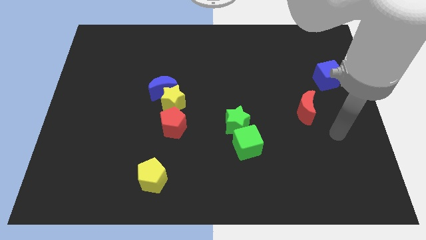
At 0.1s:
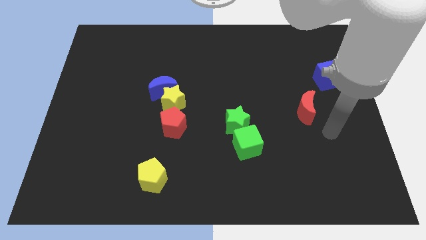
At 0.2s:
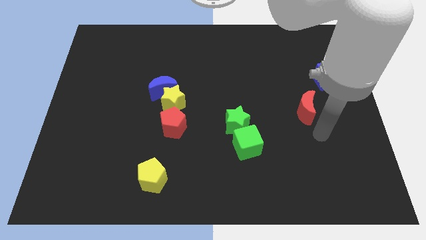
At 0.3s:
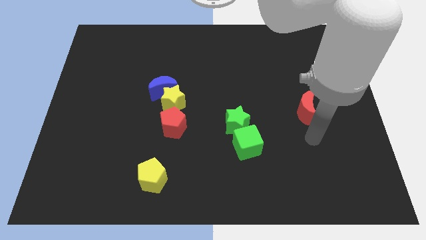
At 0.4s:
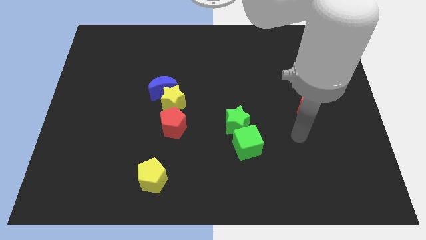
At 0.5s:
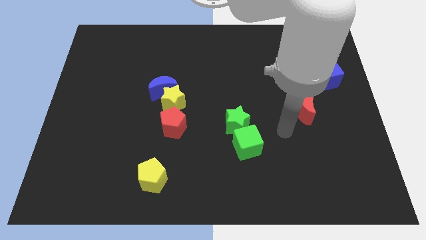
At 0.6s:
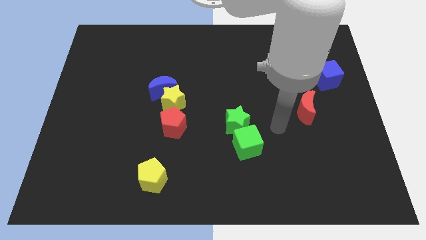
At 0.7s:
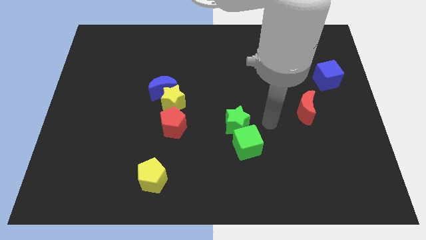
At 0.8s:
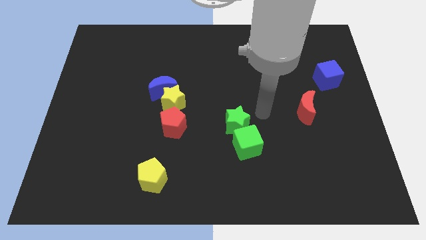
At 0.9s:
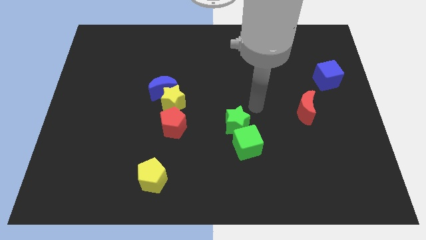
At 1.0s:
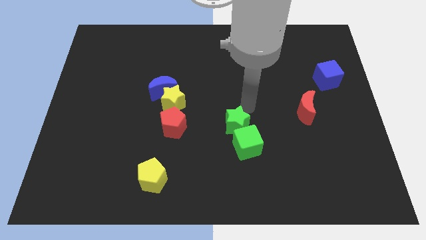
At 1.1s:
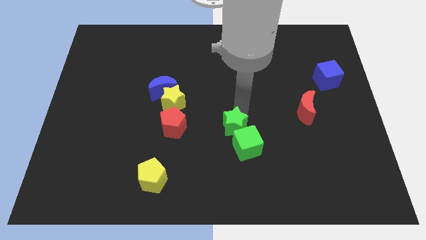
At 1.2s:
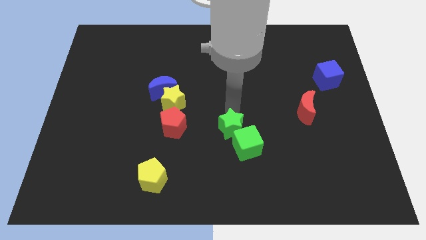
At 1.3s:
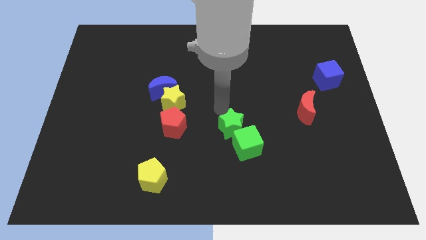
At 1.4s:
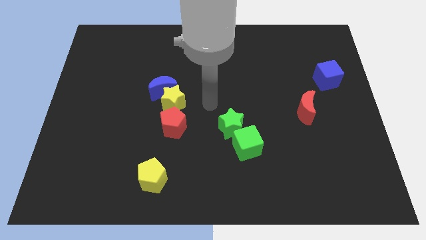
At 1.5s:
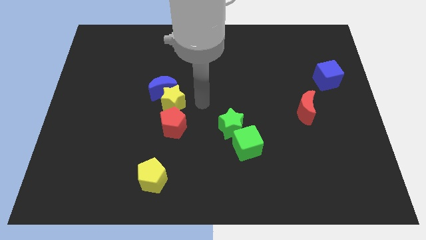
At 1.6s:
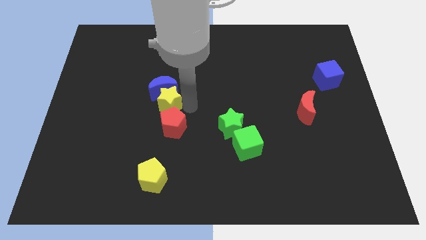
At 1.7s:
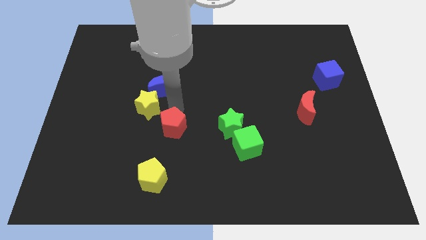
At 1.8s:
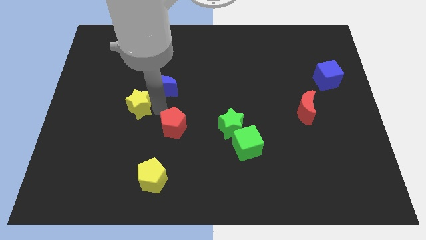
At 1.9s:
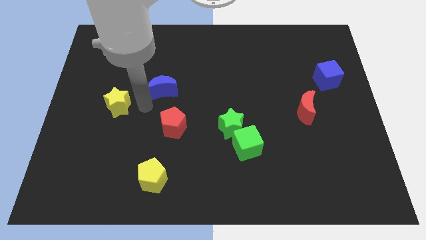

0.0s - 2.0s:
pull the blue moon apart from the yellow star

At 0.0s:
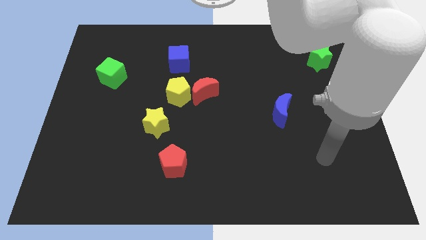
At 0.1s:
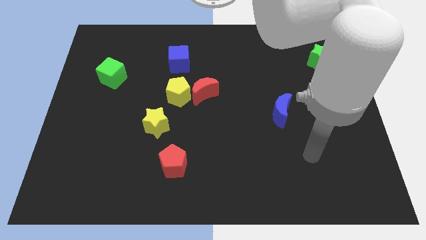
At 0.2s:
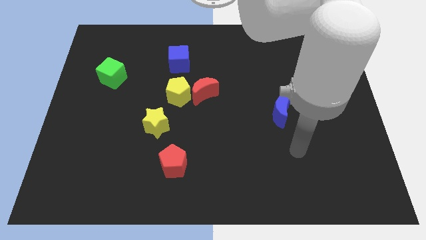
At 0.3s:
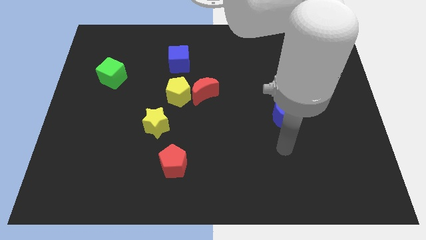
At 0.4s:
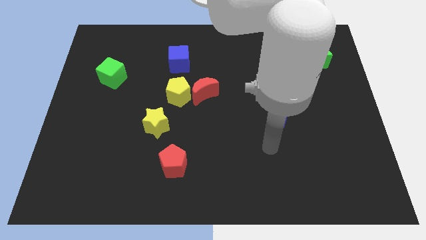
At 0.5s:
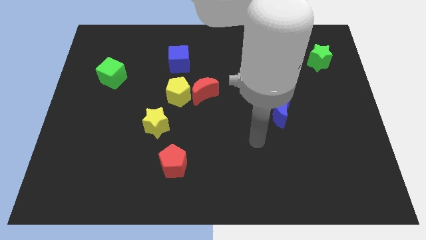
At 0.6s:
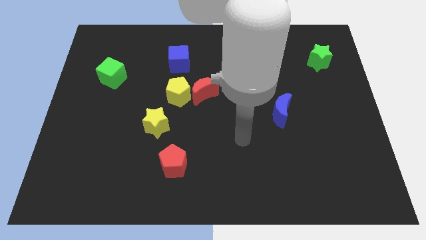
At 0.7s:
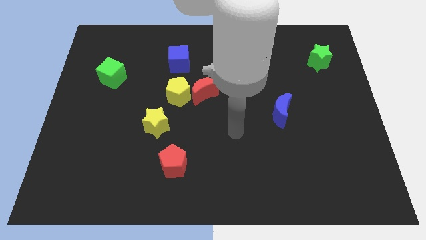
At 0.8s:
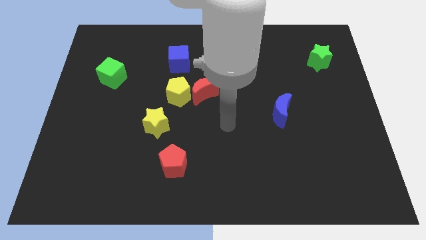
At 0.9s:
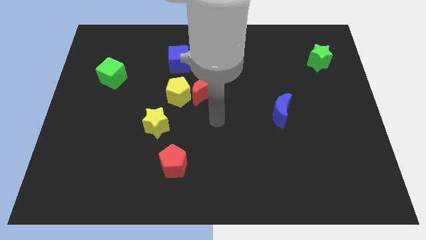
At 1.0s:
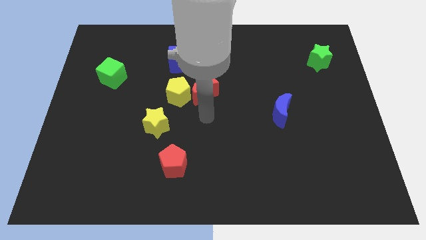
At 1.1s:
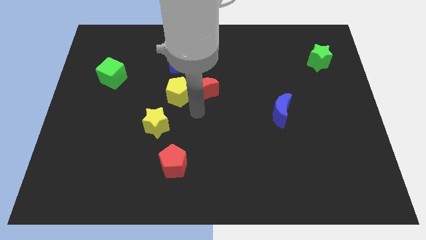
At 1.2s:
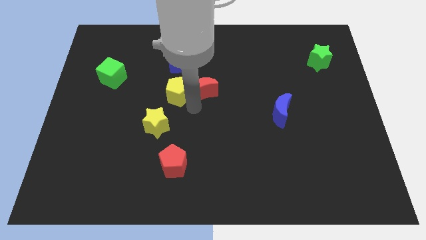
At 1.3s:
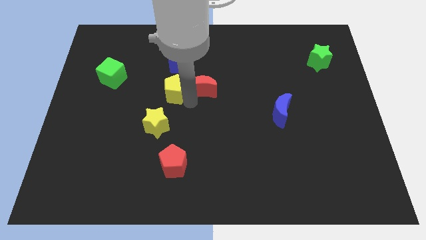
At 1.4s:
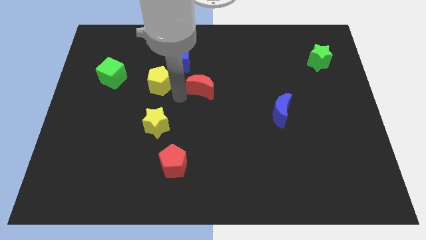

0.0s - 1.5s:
separate the red moon from the yellow pentagon

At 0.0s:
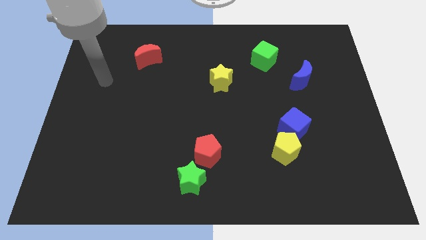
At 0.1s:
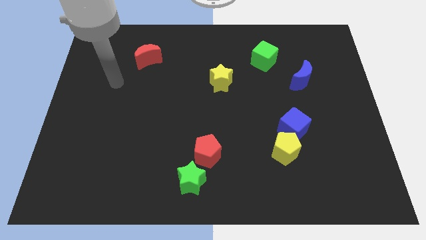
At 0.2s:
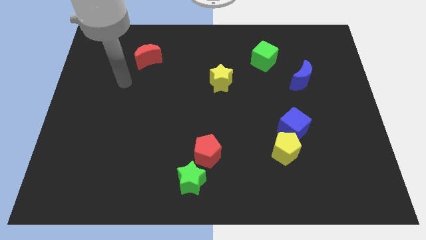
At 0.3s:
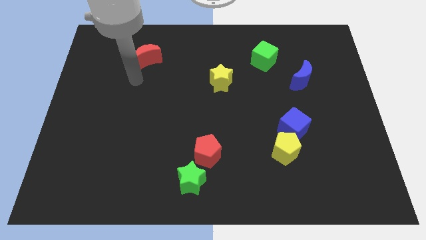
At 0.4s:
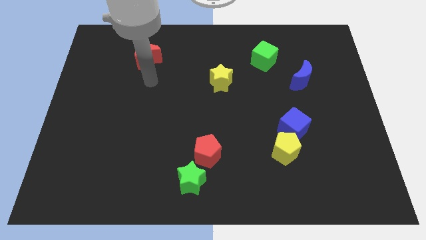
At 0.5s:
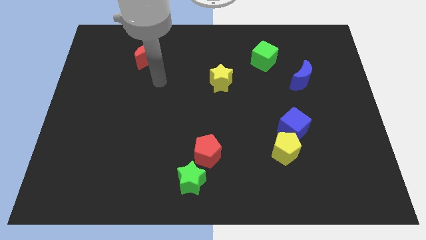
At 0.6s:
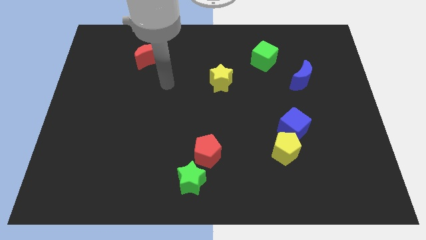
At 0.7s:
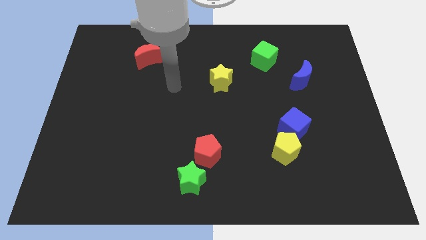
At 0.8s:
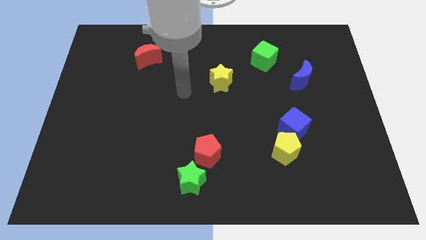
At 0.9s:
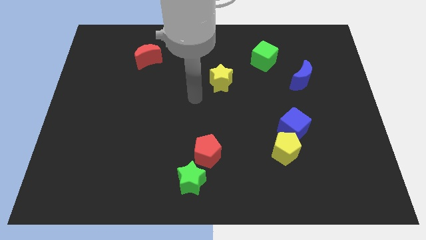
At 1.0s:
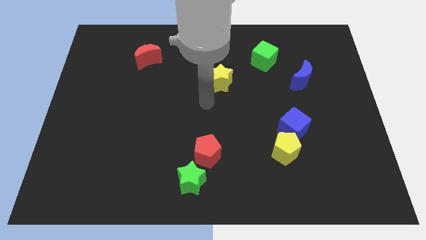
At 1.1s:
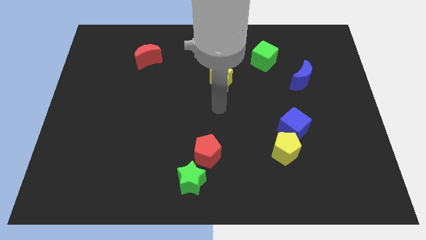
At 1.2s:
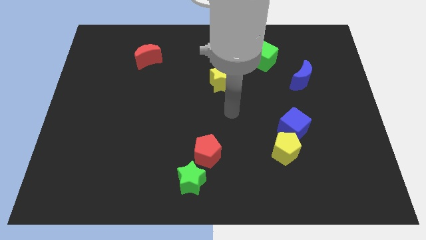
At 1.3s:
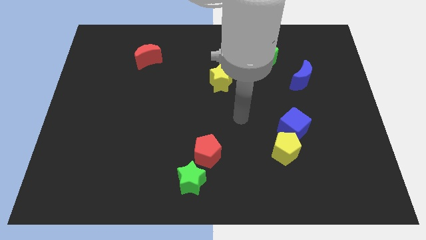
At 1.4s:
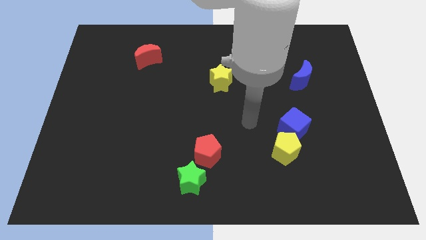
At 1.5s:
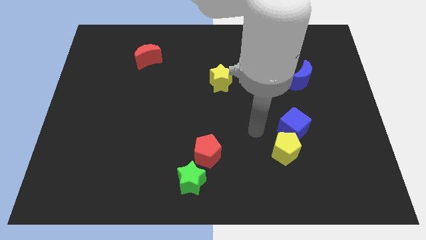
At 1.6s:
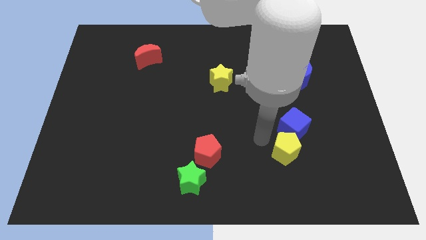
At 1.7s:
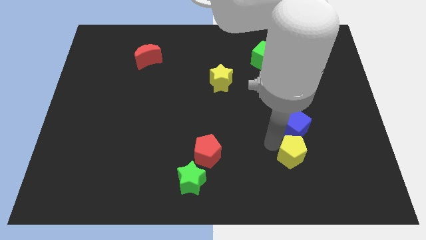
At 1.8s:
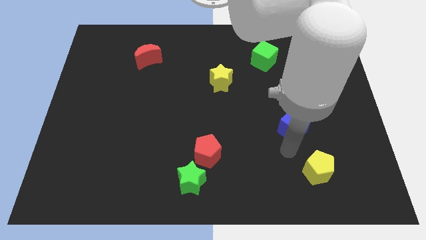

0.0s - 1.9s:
move the blue cube away from the yellow pentagon

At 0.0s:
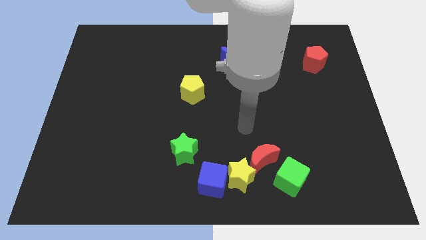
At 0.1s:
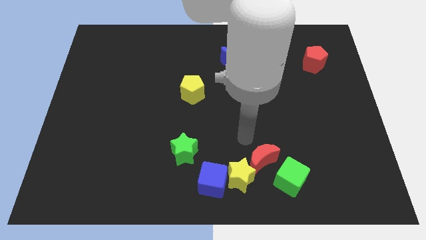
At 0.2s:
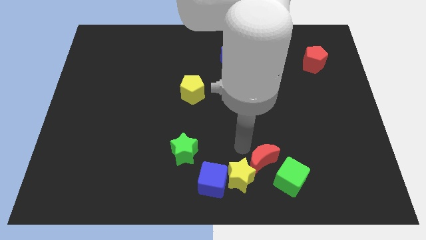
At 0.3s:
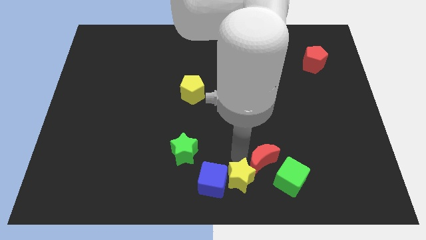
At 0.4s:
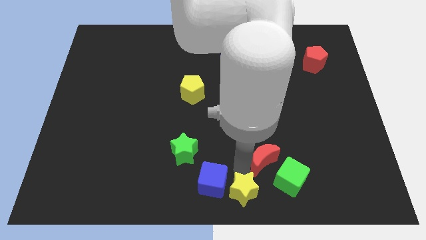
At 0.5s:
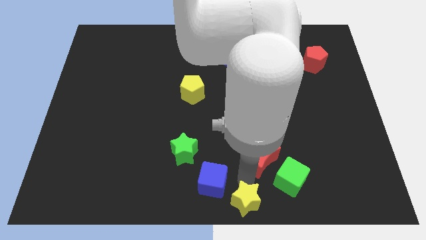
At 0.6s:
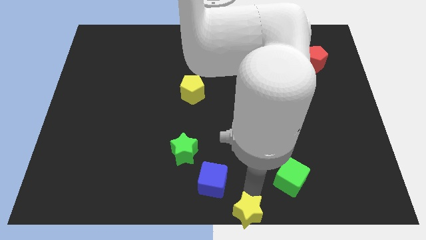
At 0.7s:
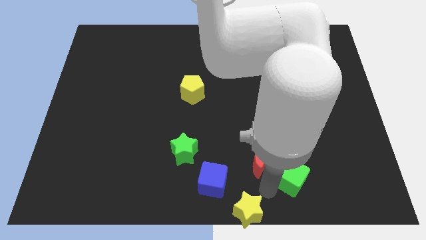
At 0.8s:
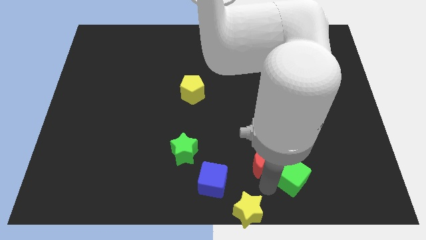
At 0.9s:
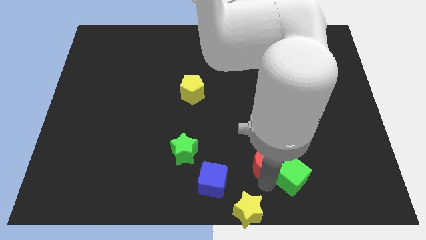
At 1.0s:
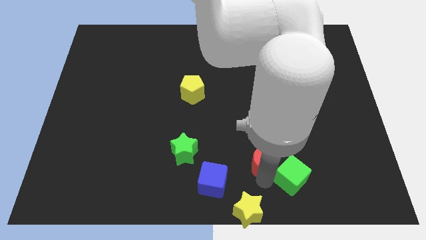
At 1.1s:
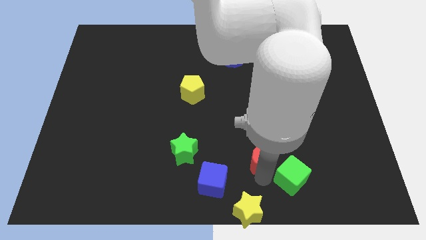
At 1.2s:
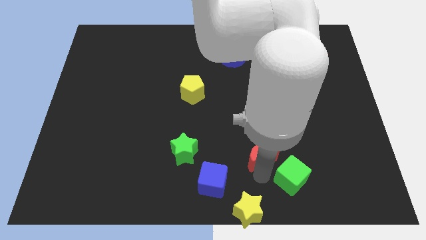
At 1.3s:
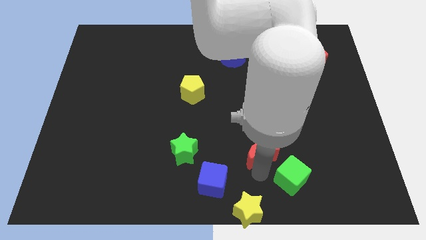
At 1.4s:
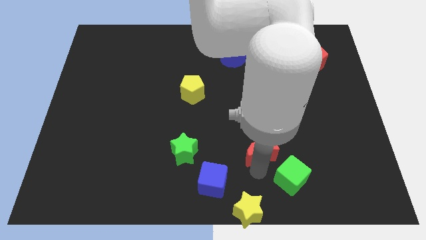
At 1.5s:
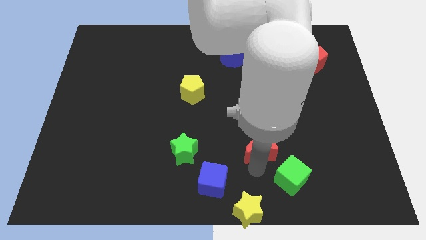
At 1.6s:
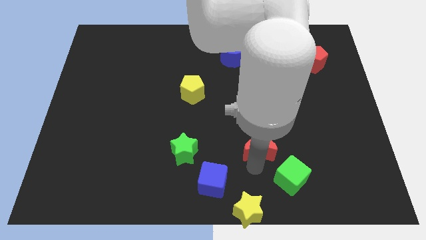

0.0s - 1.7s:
pull the red moon apart from the yellow star and green cube

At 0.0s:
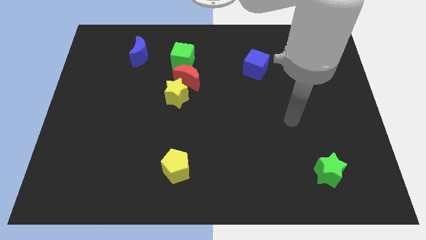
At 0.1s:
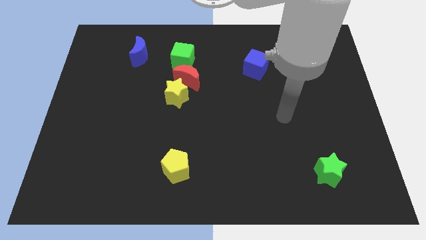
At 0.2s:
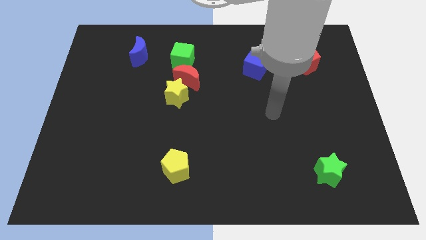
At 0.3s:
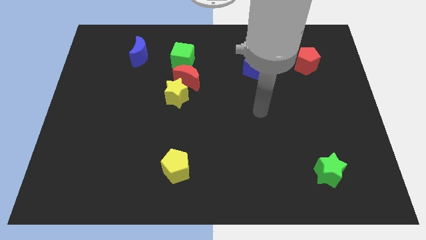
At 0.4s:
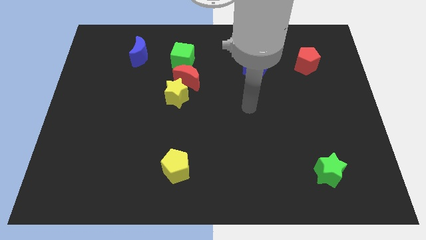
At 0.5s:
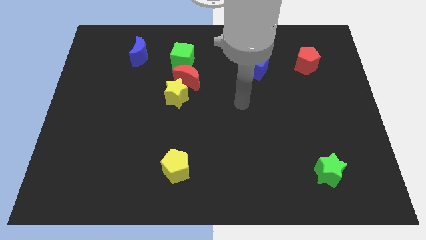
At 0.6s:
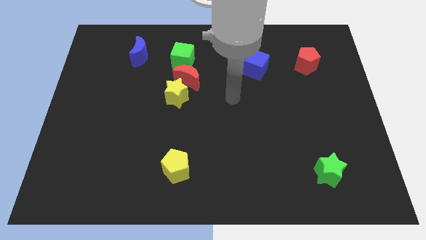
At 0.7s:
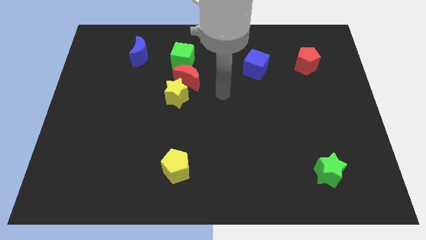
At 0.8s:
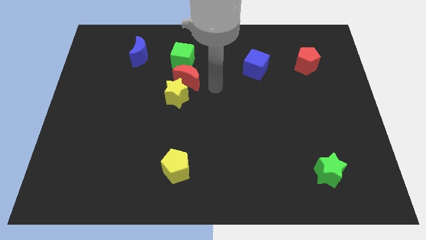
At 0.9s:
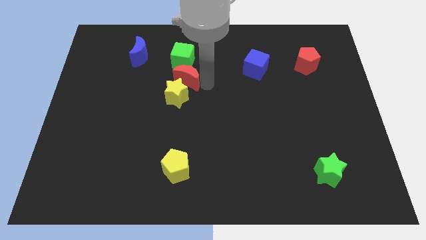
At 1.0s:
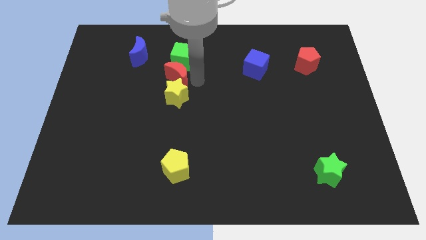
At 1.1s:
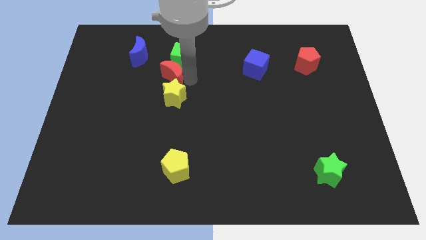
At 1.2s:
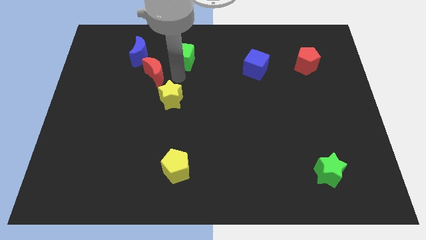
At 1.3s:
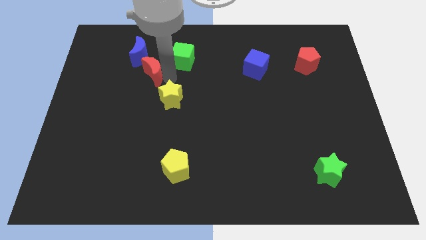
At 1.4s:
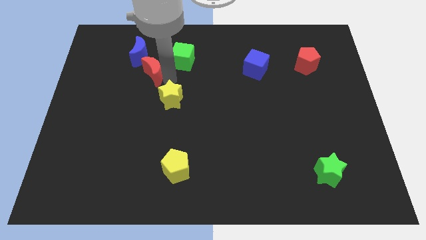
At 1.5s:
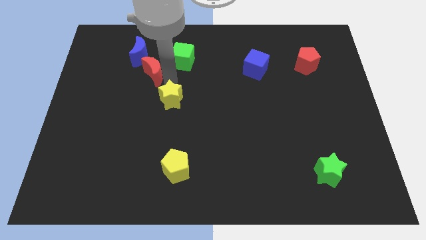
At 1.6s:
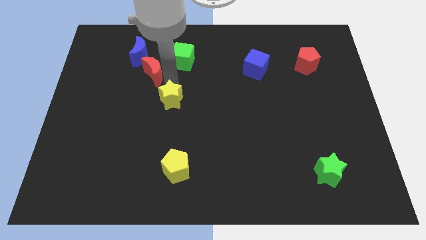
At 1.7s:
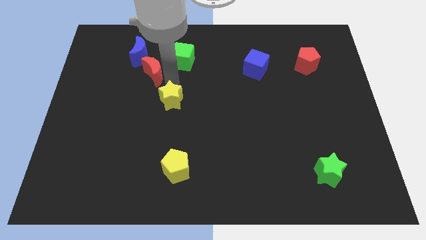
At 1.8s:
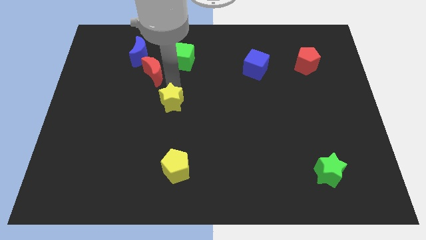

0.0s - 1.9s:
separate the yellow star from the red moon

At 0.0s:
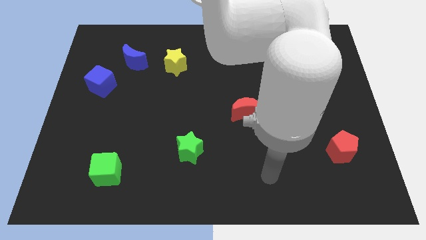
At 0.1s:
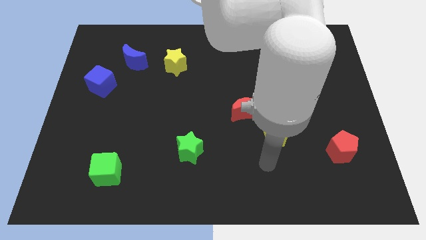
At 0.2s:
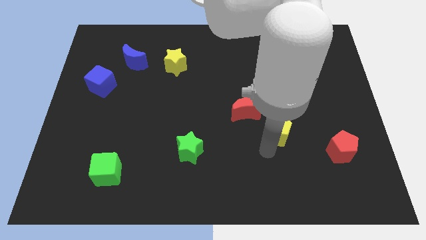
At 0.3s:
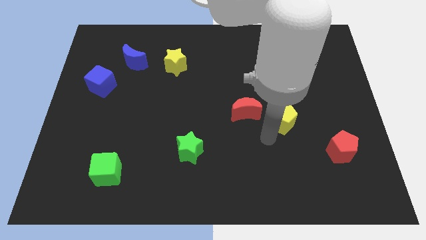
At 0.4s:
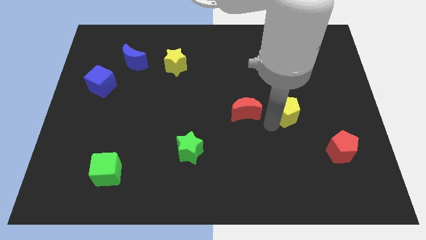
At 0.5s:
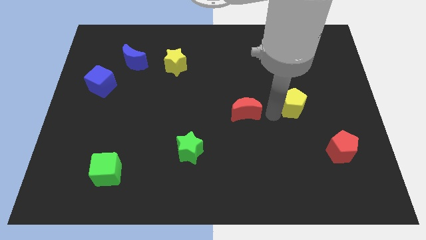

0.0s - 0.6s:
pull the red moon apart from the yellow pentagon
